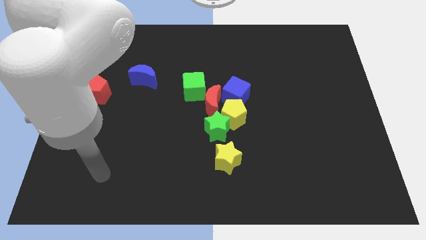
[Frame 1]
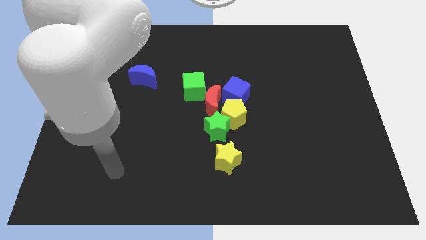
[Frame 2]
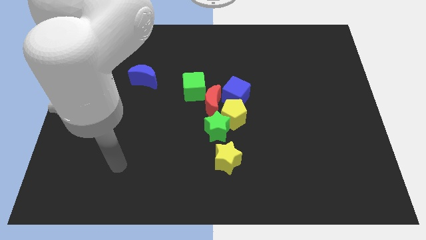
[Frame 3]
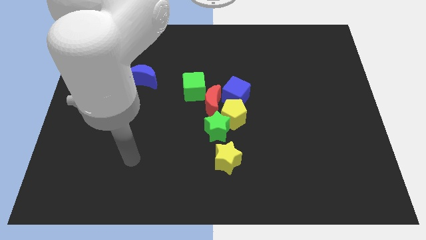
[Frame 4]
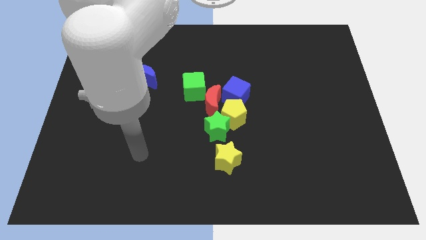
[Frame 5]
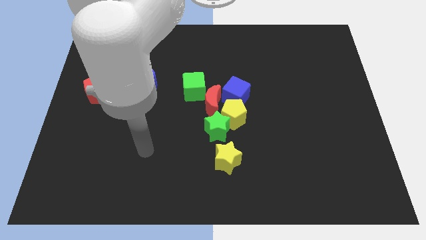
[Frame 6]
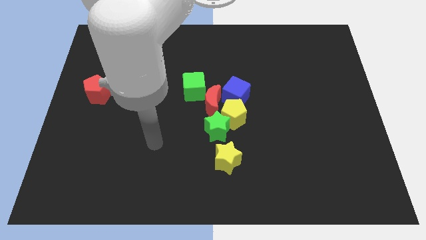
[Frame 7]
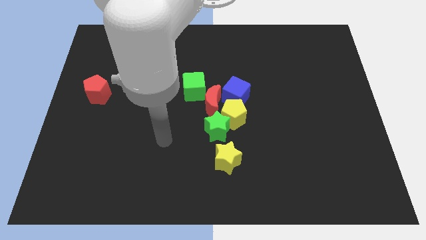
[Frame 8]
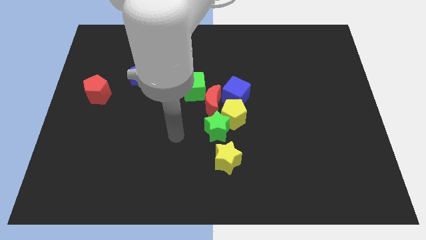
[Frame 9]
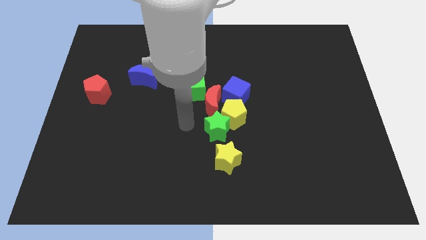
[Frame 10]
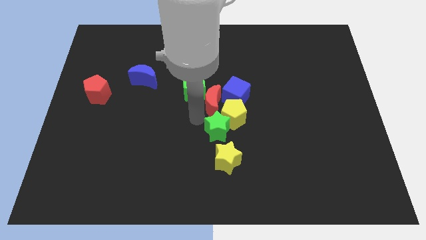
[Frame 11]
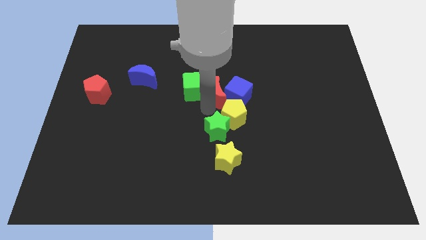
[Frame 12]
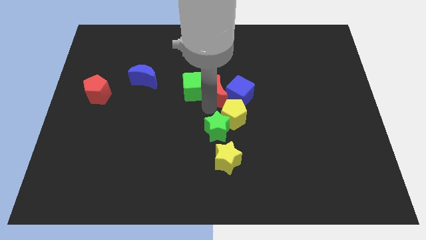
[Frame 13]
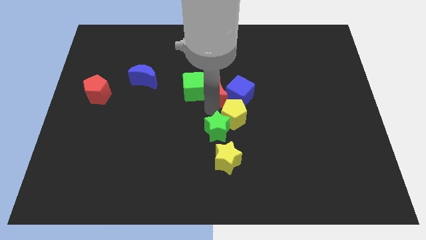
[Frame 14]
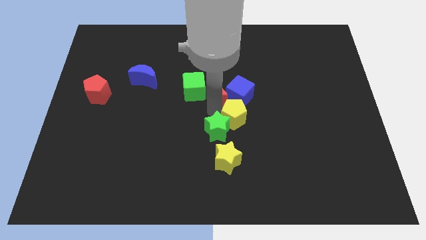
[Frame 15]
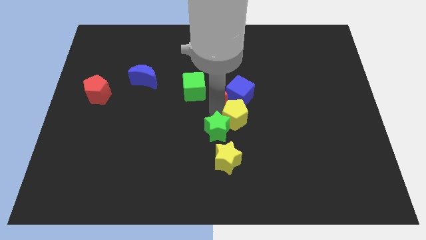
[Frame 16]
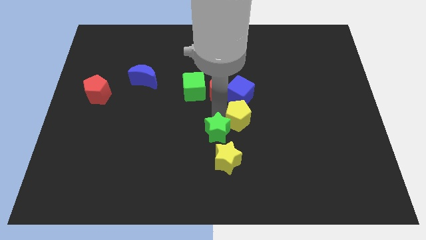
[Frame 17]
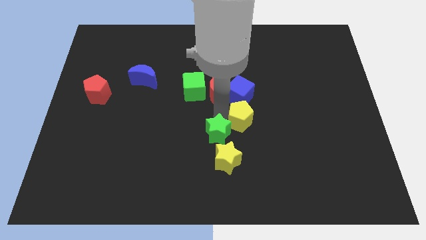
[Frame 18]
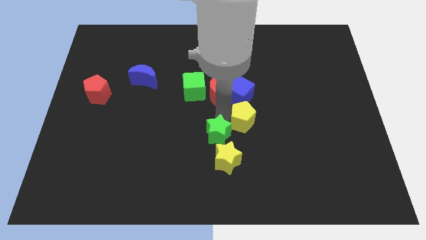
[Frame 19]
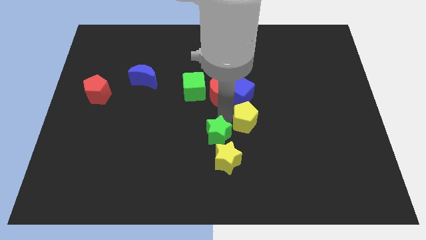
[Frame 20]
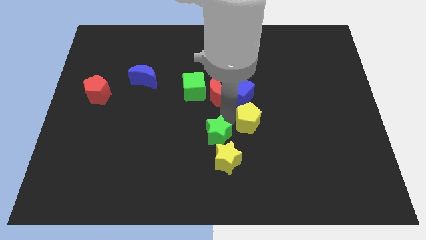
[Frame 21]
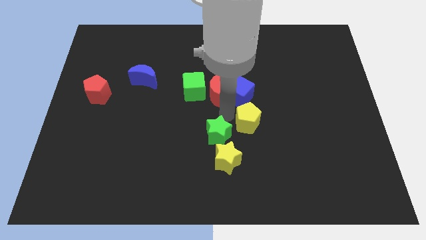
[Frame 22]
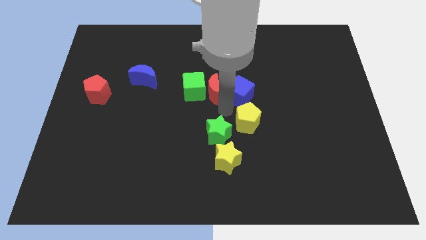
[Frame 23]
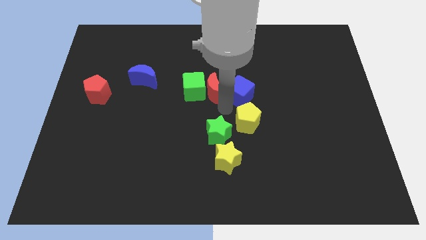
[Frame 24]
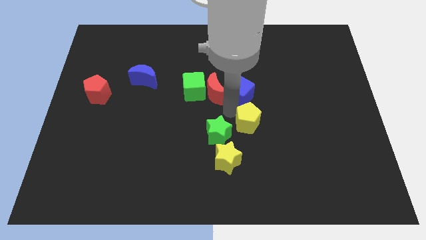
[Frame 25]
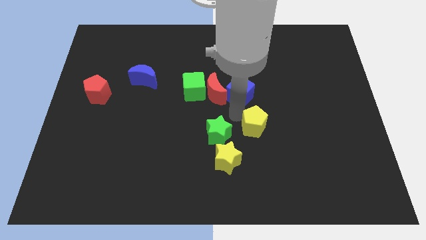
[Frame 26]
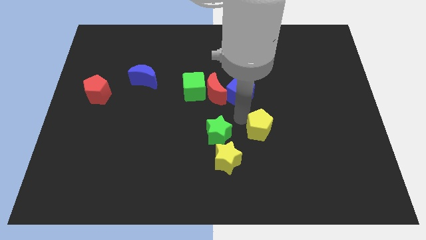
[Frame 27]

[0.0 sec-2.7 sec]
separate the yellow pentagon from the green star, red moon, and blue cube

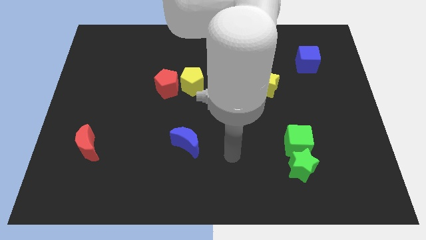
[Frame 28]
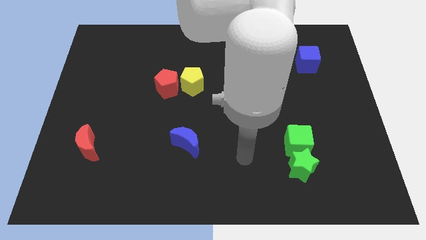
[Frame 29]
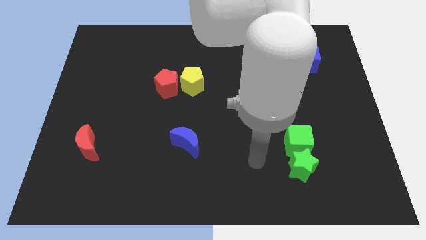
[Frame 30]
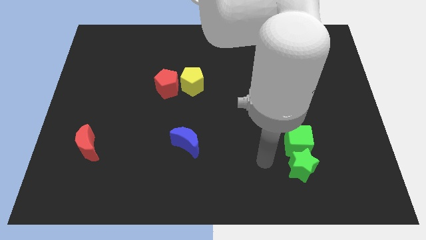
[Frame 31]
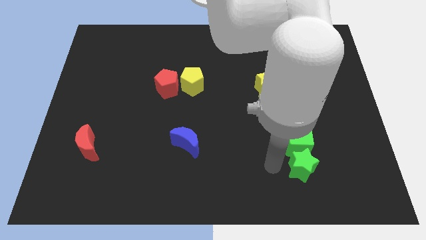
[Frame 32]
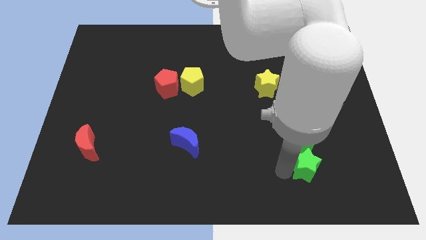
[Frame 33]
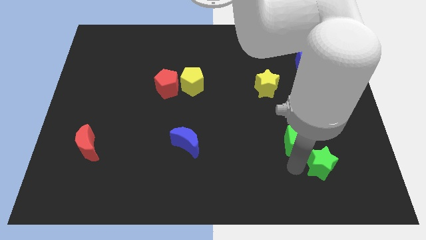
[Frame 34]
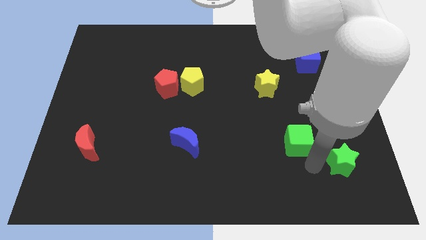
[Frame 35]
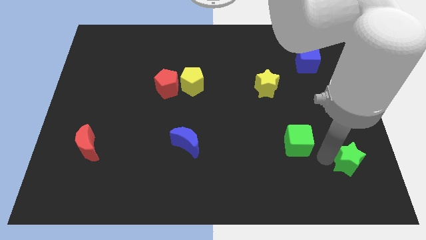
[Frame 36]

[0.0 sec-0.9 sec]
separate the green cube from the green star

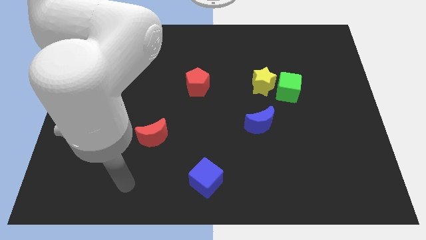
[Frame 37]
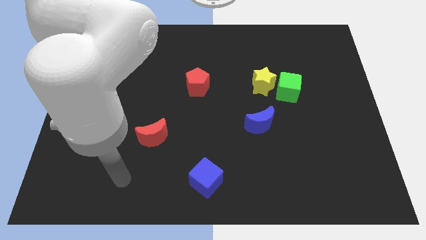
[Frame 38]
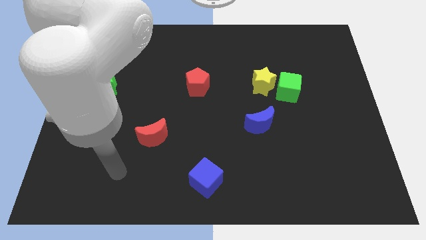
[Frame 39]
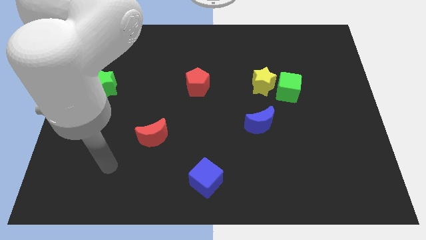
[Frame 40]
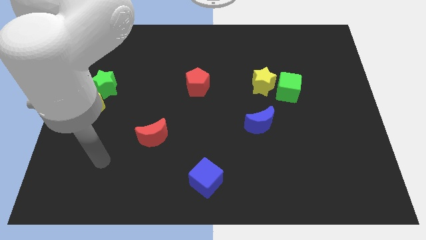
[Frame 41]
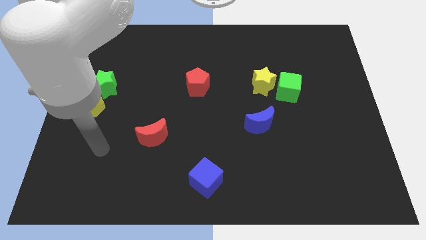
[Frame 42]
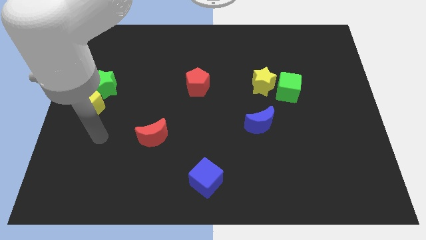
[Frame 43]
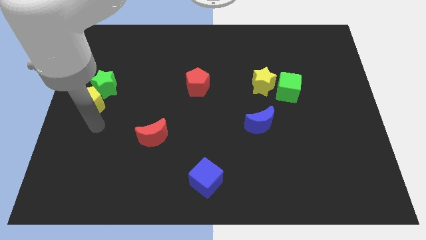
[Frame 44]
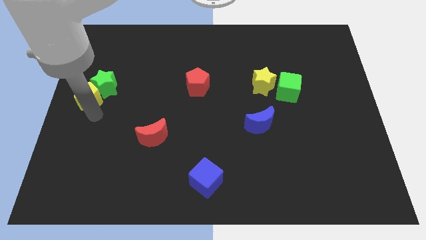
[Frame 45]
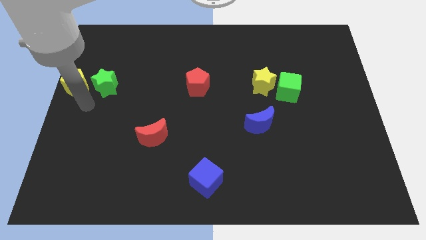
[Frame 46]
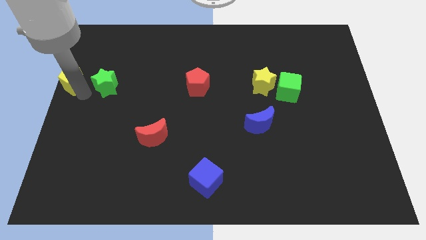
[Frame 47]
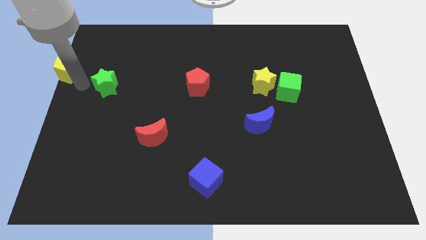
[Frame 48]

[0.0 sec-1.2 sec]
move the green star away from the yellow pentagon

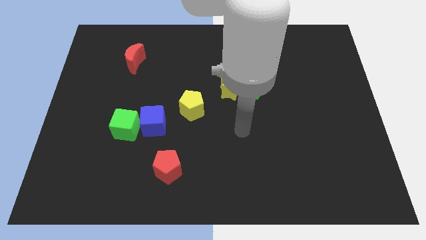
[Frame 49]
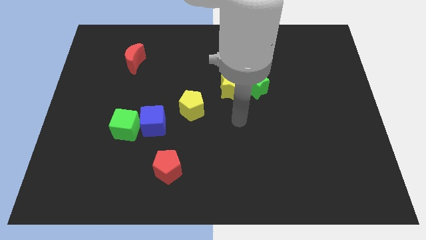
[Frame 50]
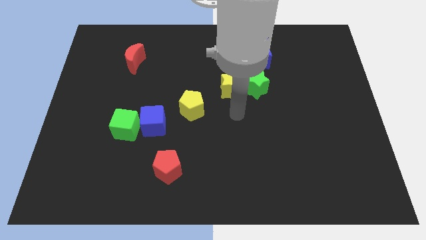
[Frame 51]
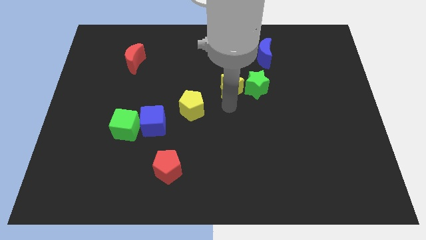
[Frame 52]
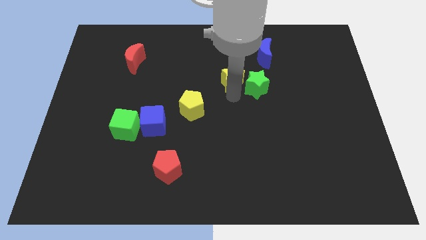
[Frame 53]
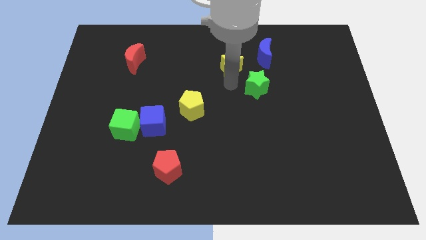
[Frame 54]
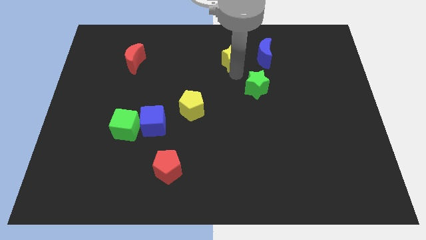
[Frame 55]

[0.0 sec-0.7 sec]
pull the green star apart from the yellow star

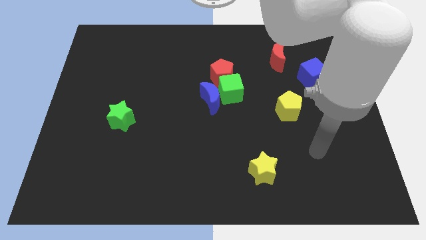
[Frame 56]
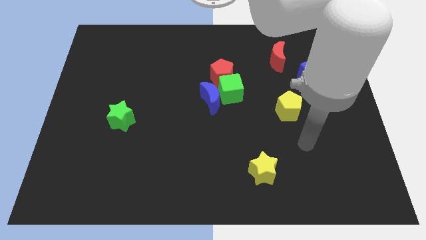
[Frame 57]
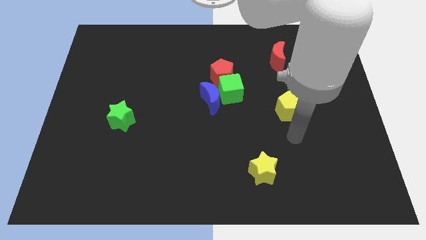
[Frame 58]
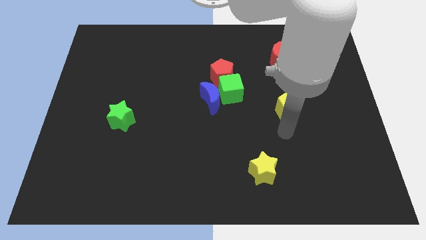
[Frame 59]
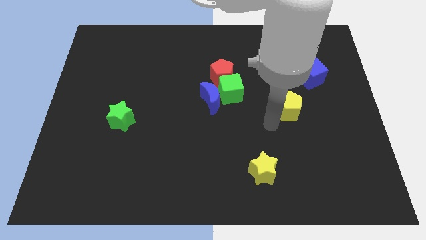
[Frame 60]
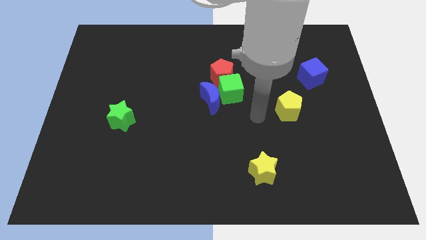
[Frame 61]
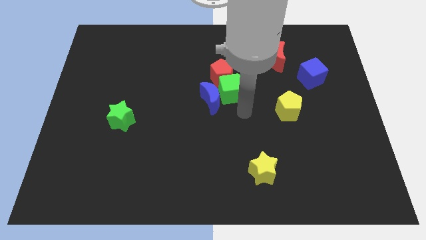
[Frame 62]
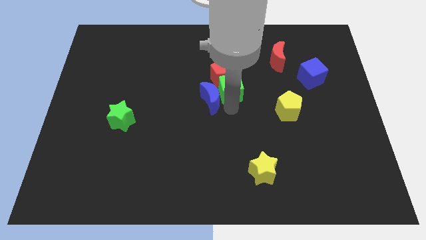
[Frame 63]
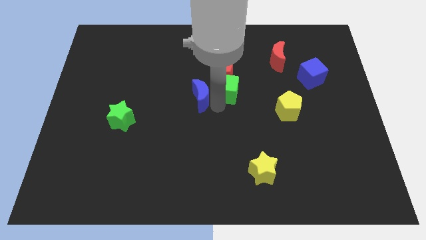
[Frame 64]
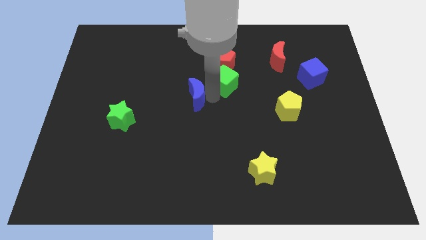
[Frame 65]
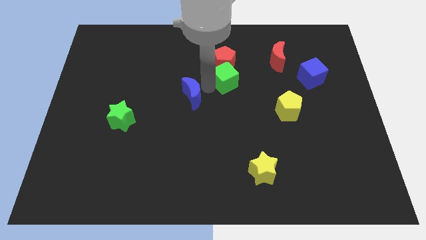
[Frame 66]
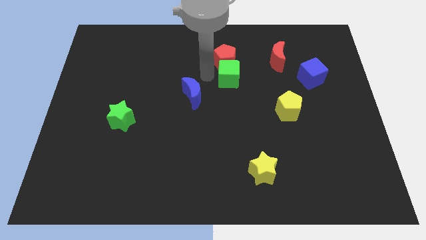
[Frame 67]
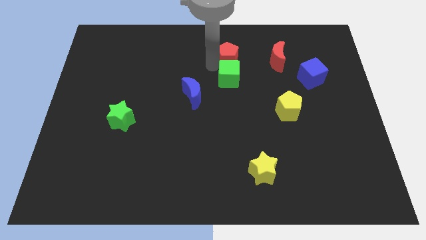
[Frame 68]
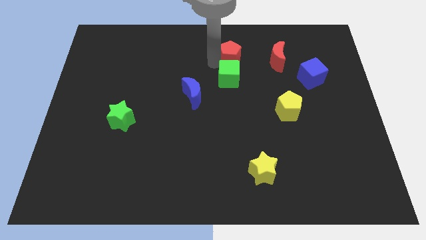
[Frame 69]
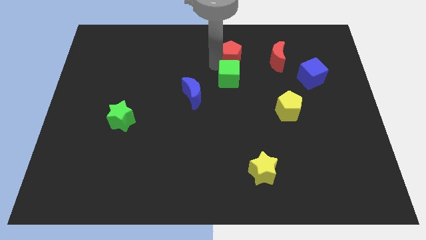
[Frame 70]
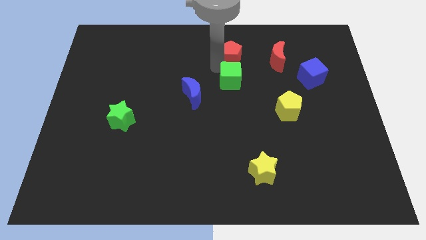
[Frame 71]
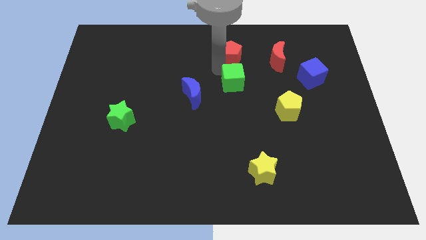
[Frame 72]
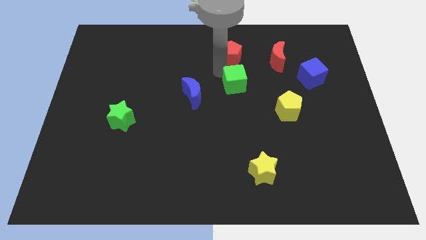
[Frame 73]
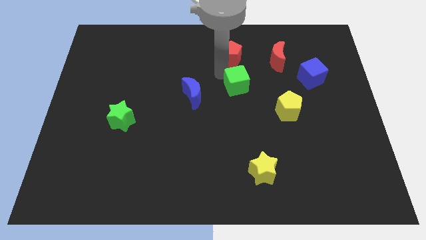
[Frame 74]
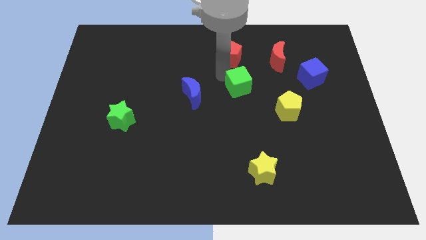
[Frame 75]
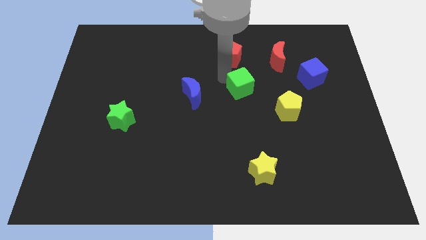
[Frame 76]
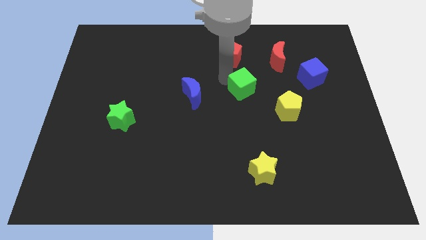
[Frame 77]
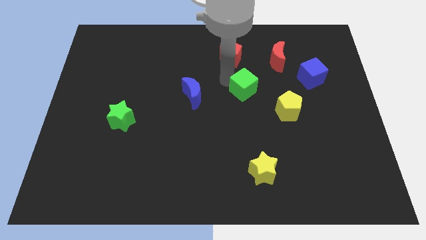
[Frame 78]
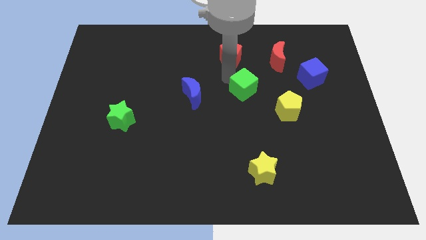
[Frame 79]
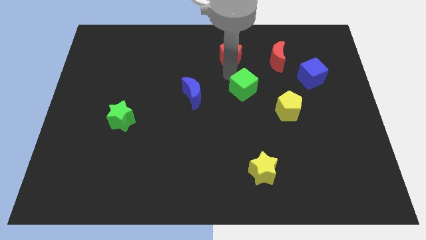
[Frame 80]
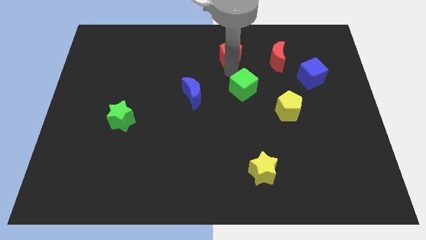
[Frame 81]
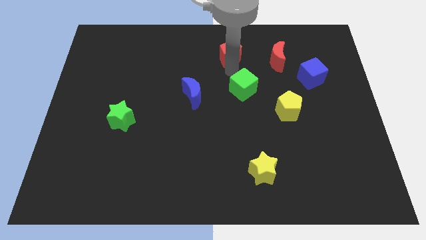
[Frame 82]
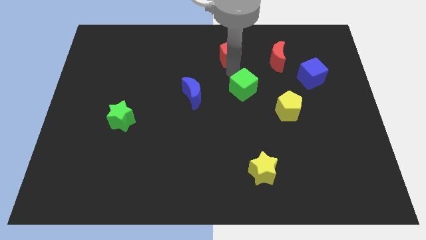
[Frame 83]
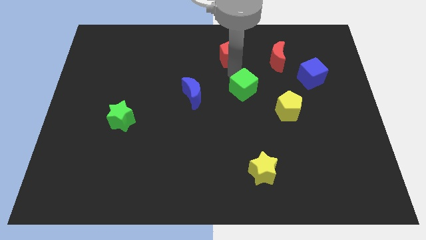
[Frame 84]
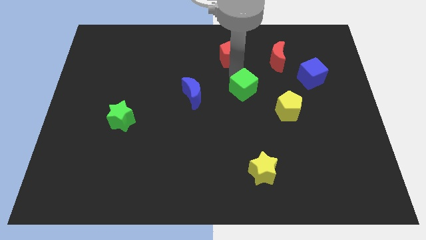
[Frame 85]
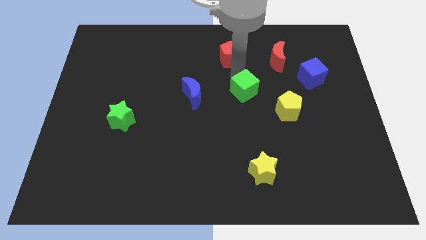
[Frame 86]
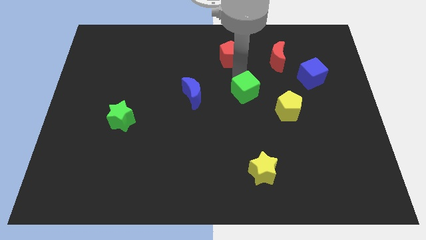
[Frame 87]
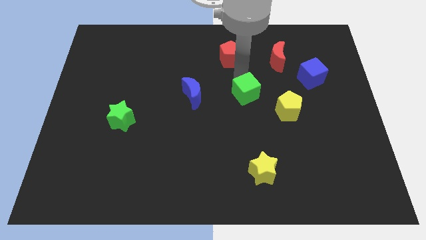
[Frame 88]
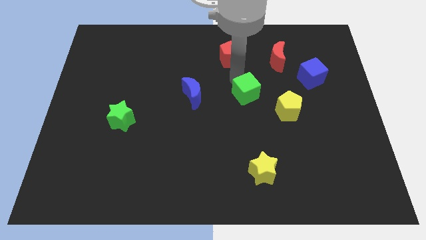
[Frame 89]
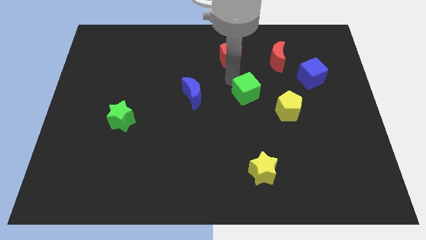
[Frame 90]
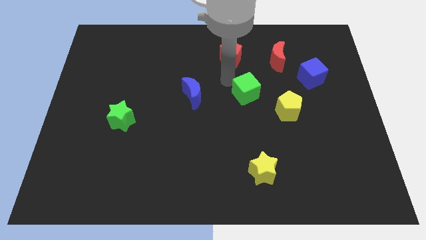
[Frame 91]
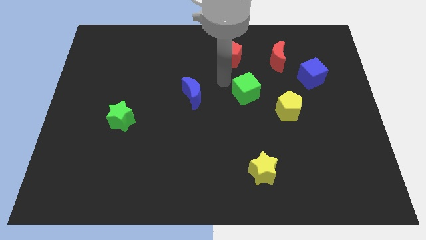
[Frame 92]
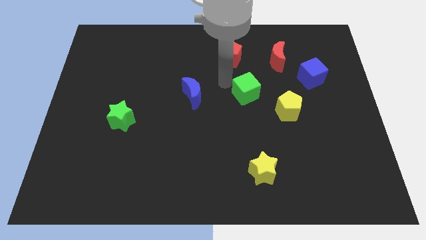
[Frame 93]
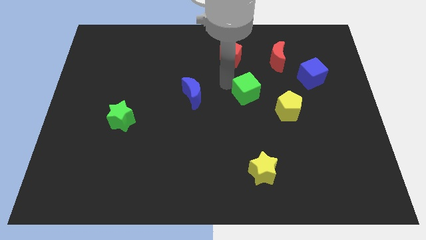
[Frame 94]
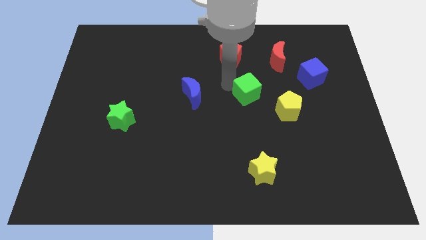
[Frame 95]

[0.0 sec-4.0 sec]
move the green cube away from the blue moon and red pentagon

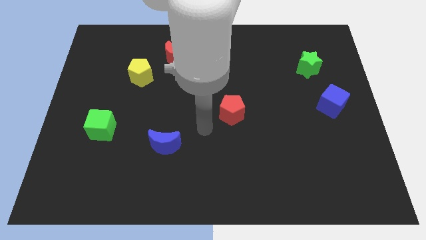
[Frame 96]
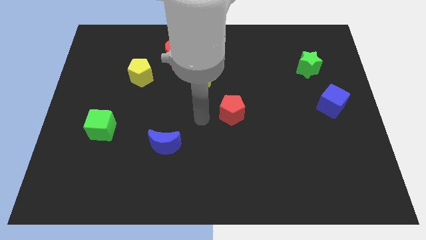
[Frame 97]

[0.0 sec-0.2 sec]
pull the yellow star apart from the red moon
